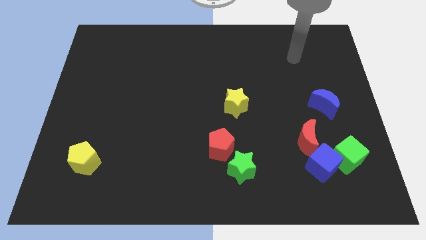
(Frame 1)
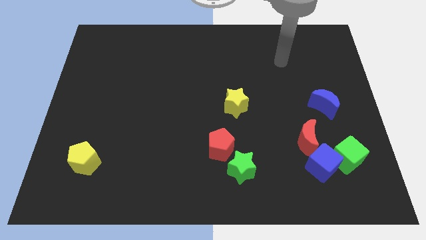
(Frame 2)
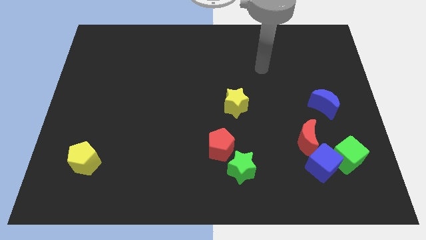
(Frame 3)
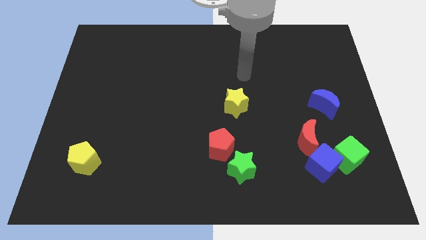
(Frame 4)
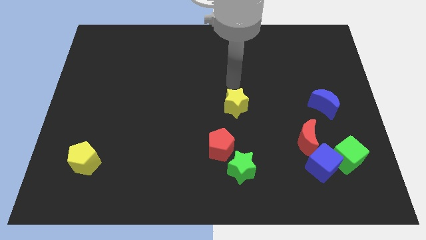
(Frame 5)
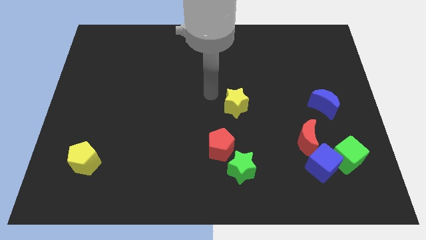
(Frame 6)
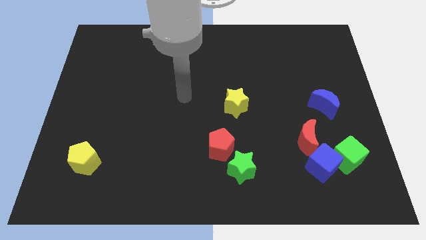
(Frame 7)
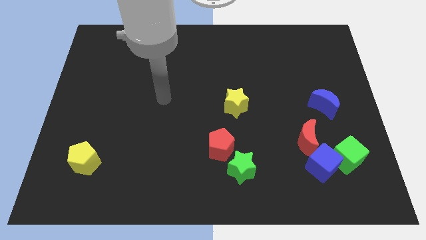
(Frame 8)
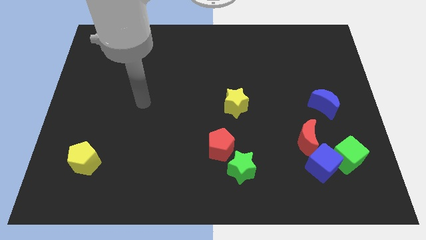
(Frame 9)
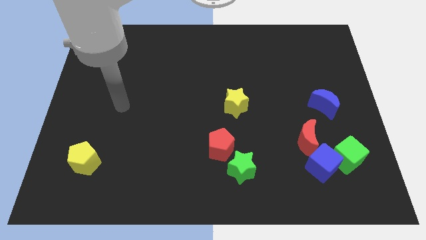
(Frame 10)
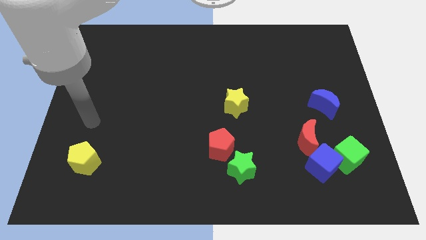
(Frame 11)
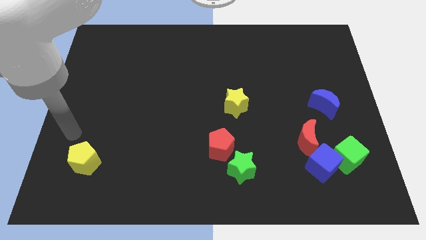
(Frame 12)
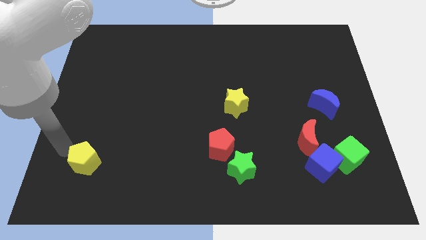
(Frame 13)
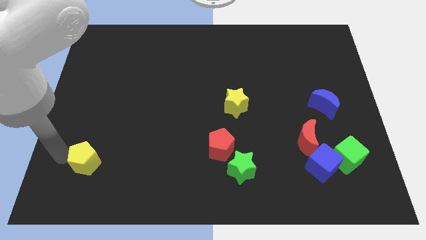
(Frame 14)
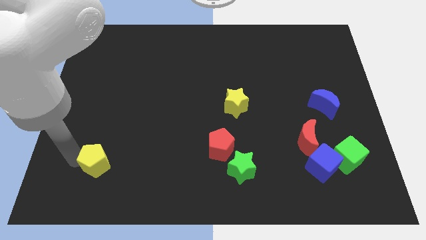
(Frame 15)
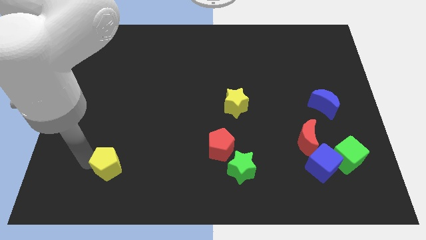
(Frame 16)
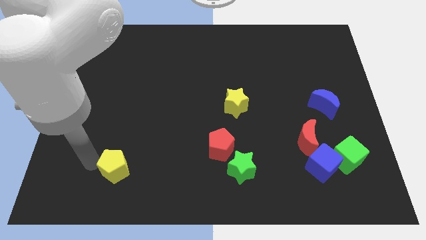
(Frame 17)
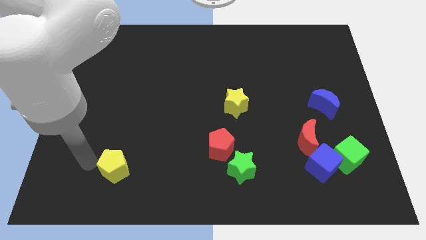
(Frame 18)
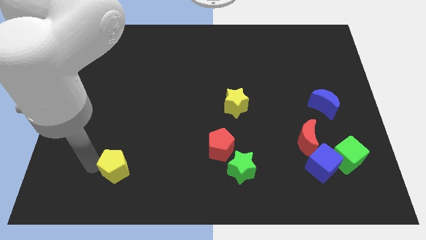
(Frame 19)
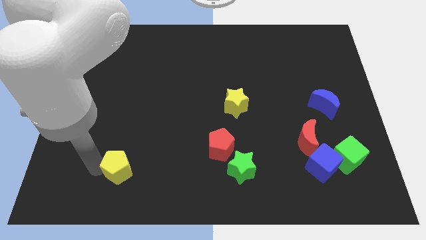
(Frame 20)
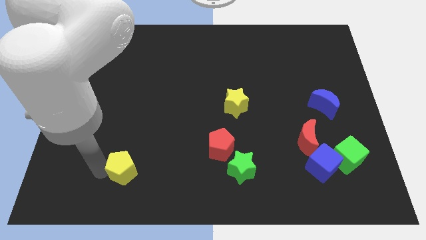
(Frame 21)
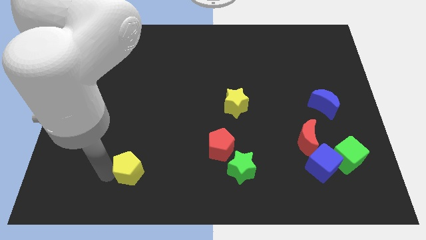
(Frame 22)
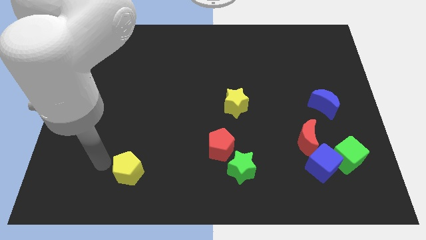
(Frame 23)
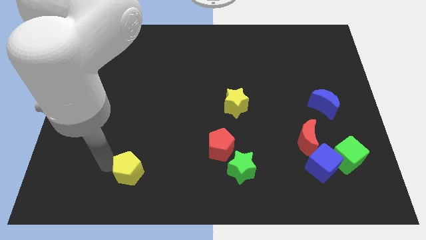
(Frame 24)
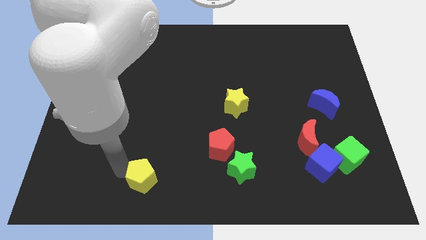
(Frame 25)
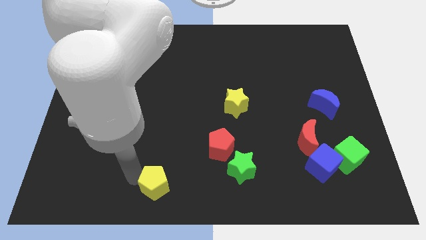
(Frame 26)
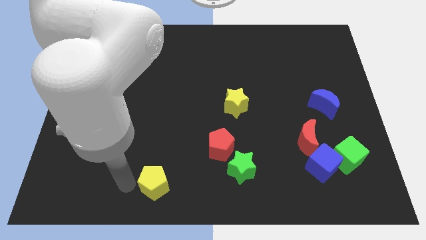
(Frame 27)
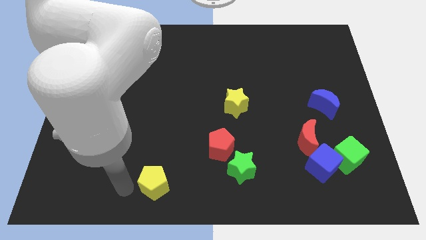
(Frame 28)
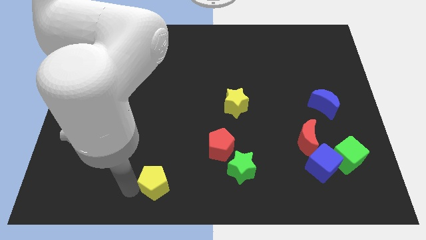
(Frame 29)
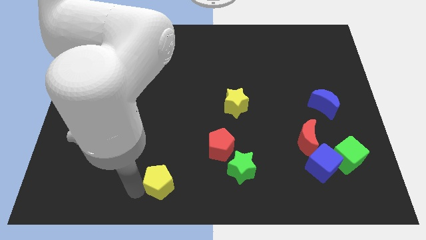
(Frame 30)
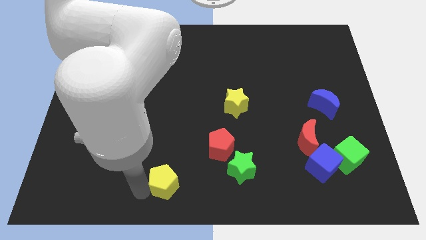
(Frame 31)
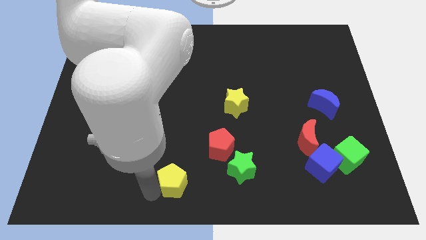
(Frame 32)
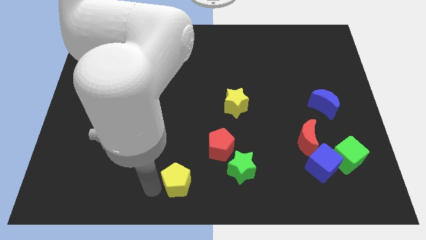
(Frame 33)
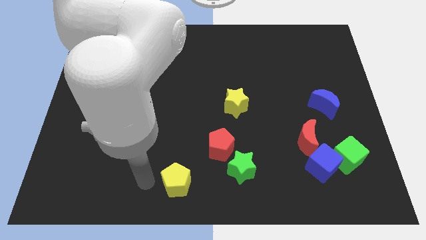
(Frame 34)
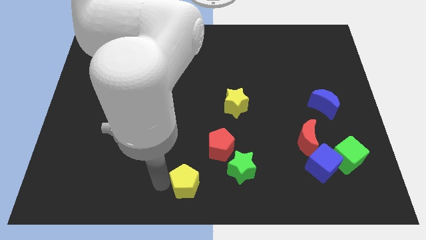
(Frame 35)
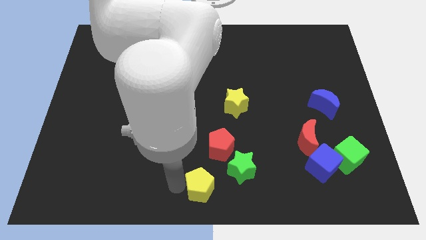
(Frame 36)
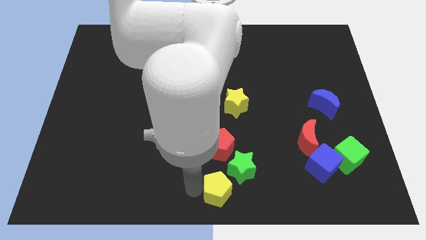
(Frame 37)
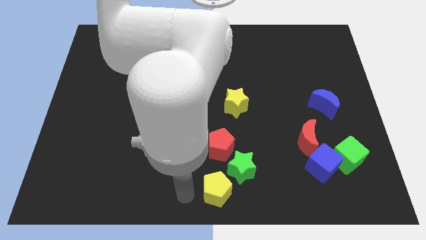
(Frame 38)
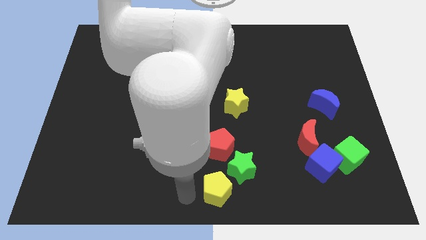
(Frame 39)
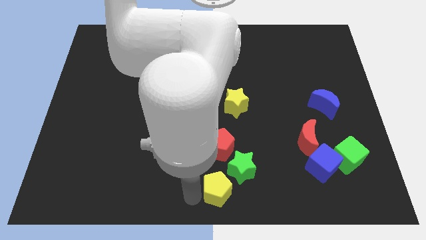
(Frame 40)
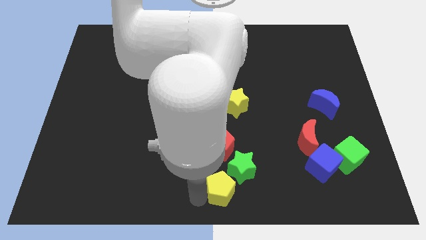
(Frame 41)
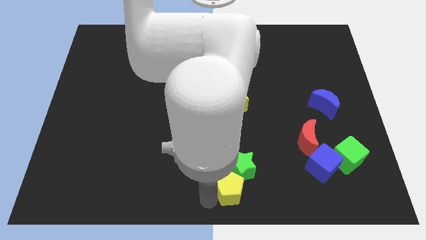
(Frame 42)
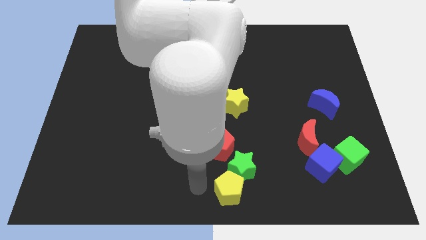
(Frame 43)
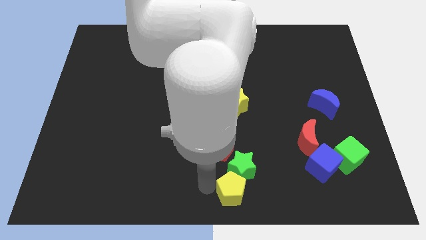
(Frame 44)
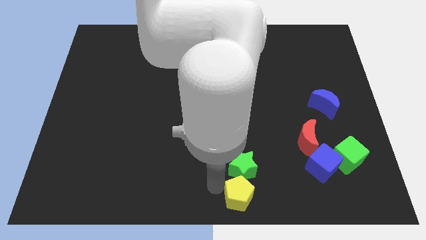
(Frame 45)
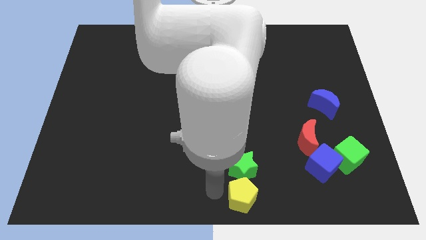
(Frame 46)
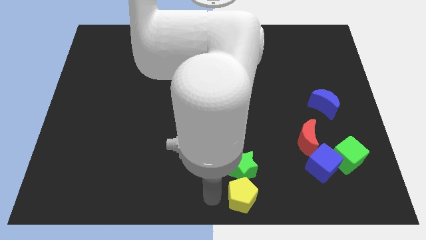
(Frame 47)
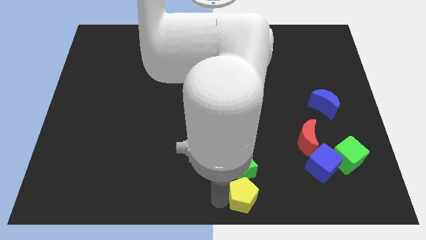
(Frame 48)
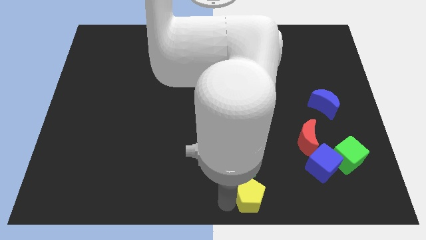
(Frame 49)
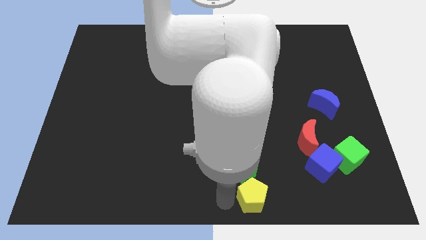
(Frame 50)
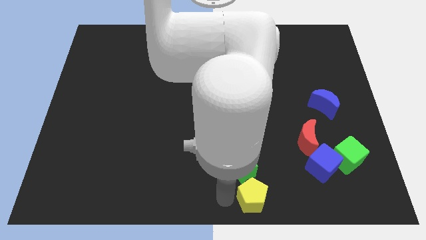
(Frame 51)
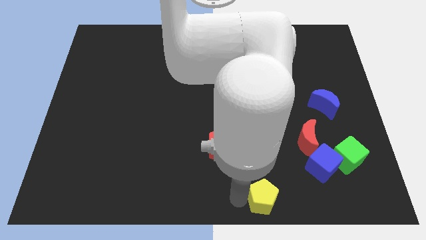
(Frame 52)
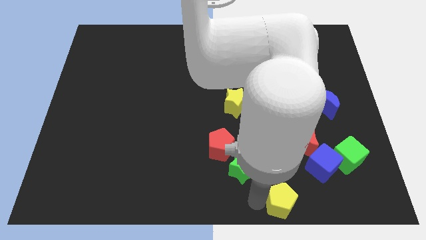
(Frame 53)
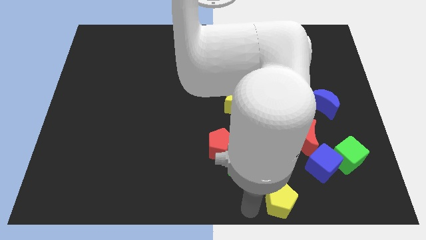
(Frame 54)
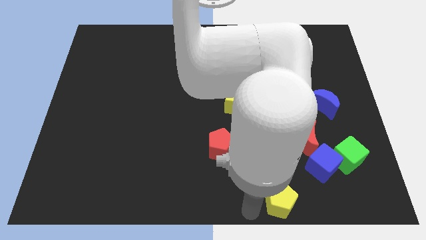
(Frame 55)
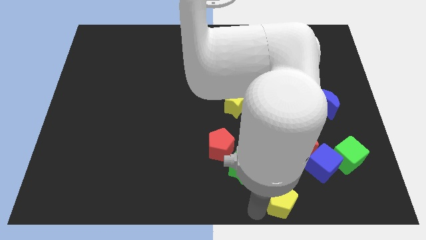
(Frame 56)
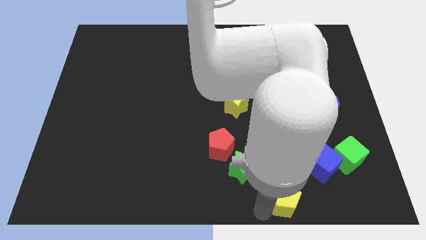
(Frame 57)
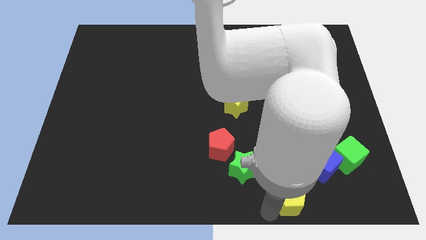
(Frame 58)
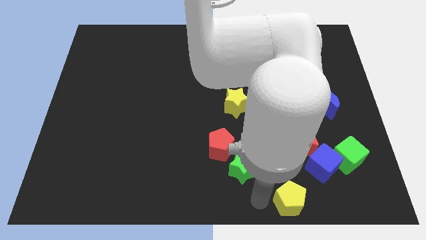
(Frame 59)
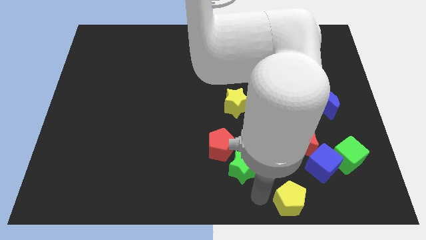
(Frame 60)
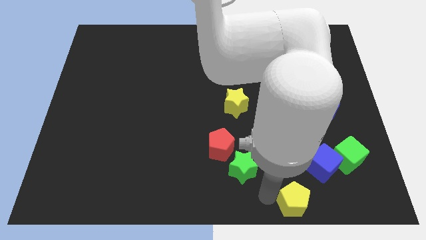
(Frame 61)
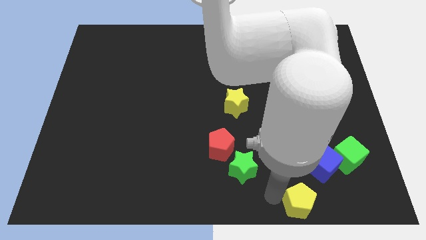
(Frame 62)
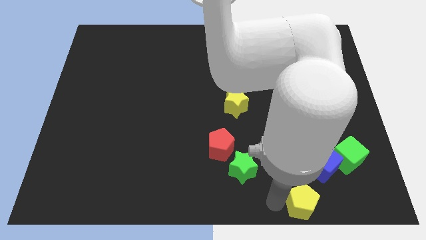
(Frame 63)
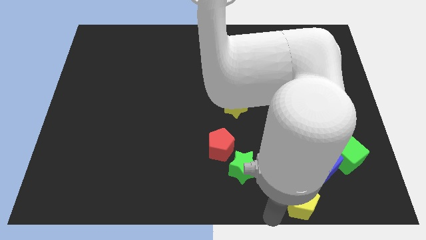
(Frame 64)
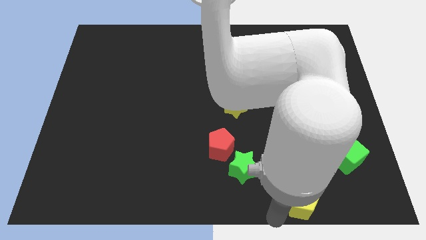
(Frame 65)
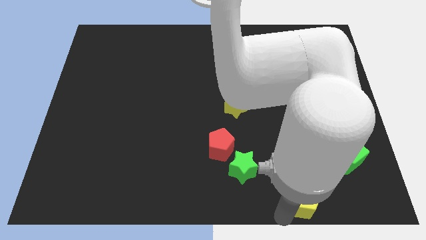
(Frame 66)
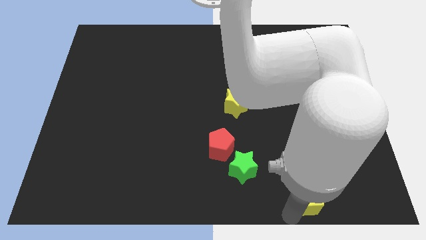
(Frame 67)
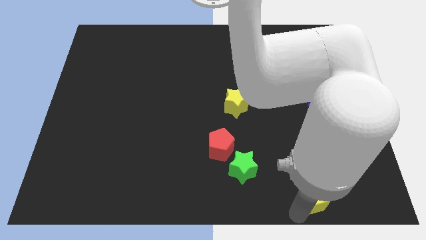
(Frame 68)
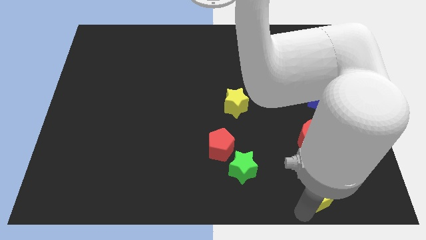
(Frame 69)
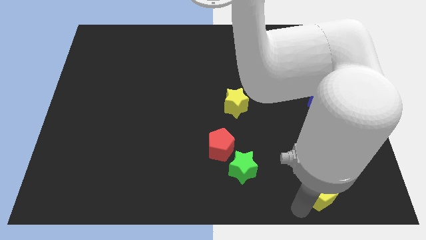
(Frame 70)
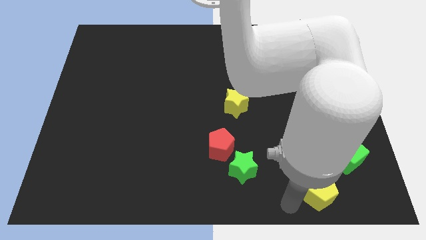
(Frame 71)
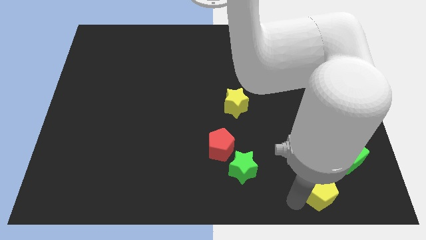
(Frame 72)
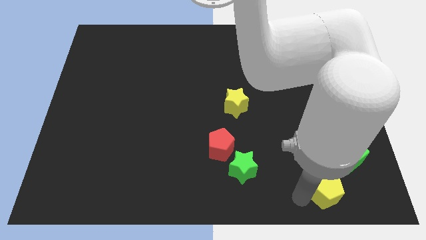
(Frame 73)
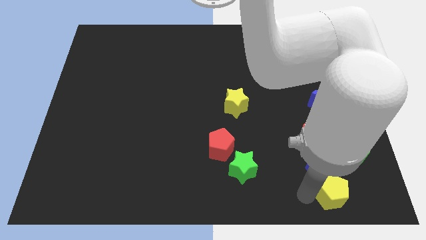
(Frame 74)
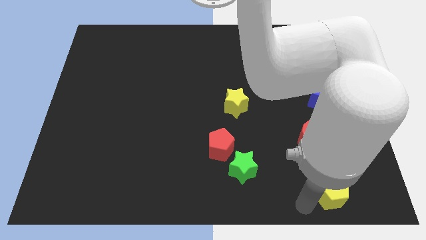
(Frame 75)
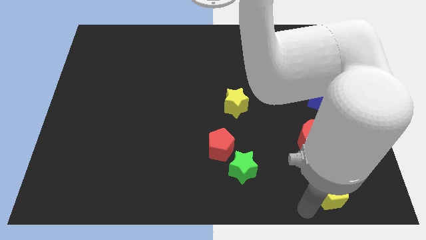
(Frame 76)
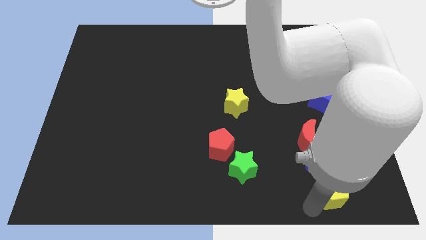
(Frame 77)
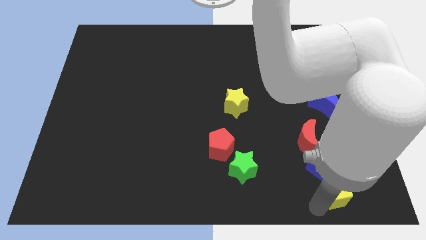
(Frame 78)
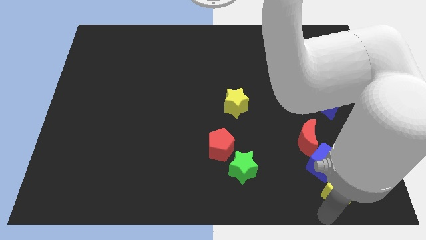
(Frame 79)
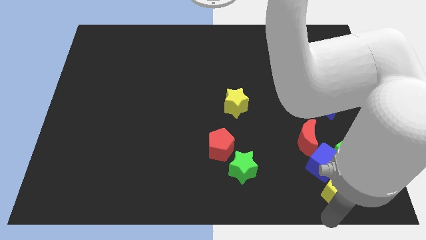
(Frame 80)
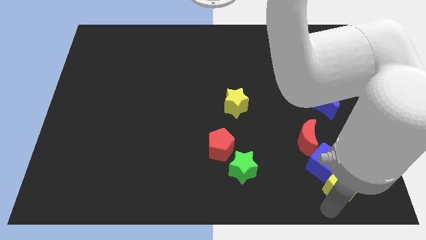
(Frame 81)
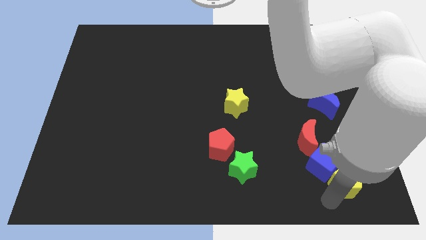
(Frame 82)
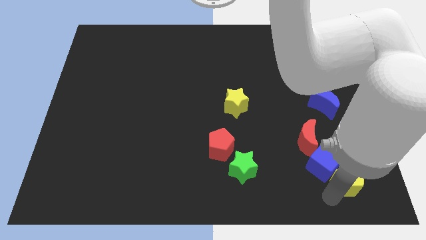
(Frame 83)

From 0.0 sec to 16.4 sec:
move the yellow pentagon next to the green cube
